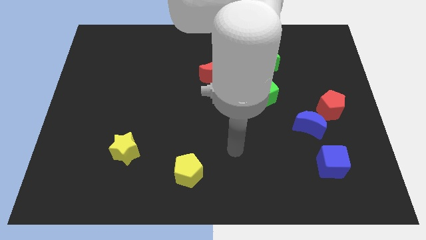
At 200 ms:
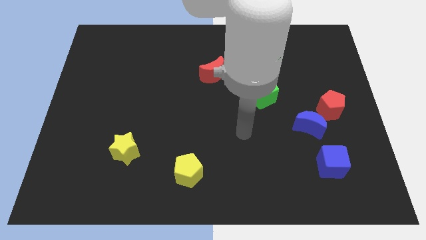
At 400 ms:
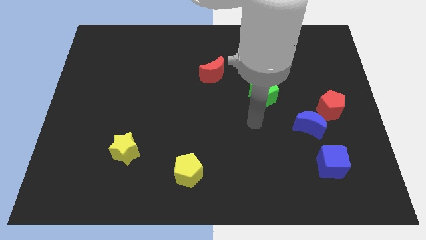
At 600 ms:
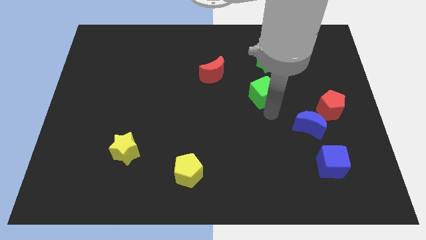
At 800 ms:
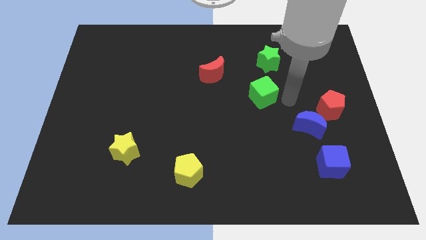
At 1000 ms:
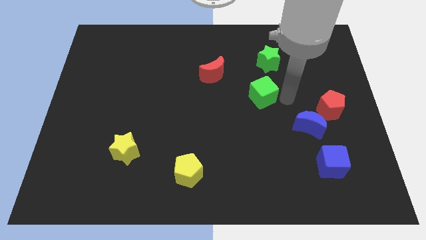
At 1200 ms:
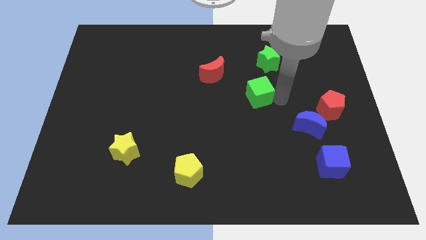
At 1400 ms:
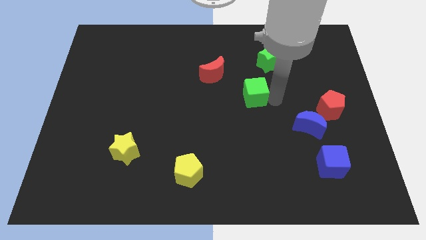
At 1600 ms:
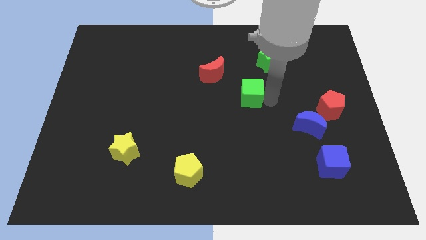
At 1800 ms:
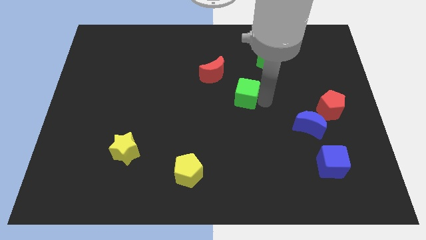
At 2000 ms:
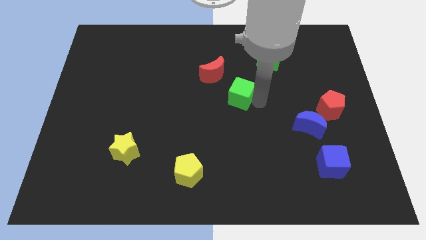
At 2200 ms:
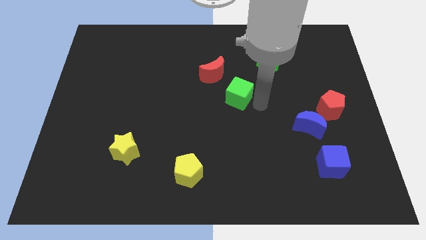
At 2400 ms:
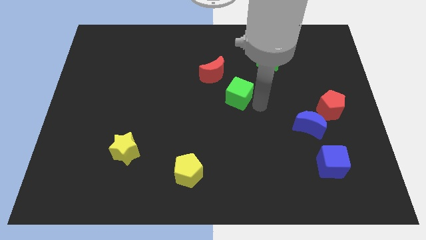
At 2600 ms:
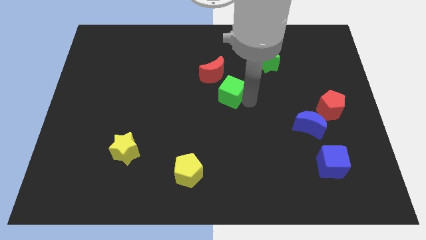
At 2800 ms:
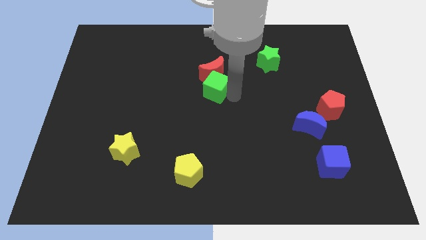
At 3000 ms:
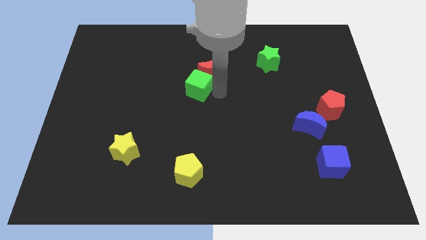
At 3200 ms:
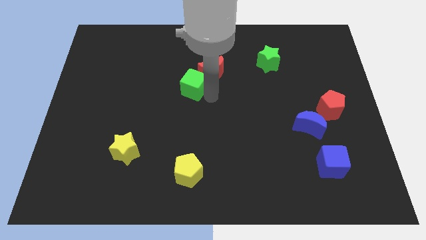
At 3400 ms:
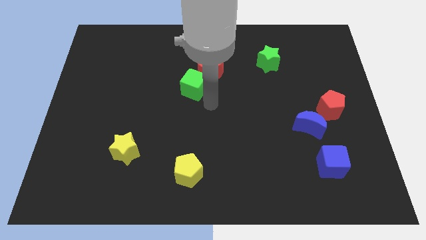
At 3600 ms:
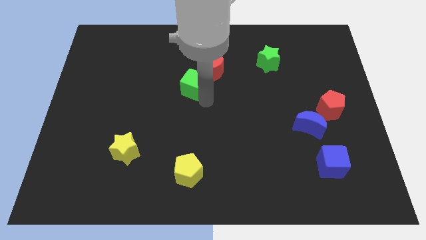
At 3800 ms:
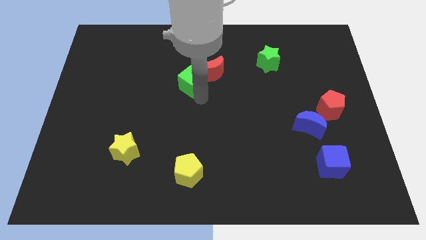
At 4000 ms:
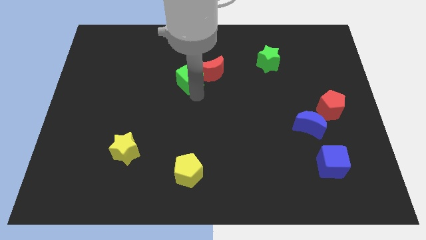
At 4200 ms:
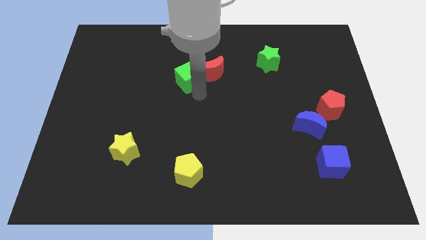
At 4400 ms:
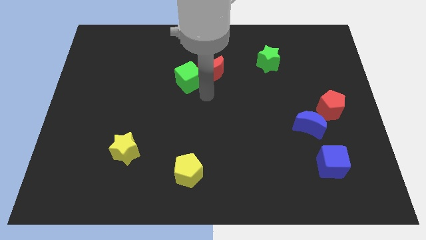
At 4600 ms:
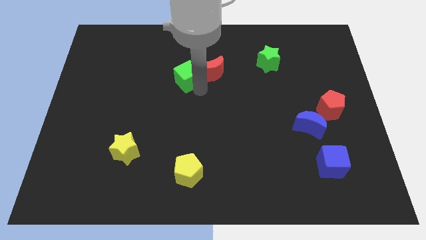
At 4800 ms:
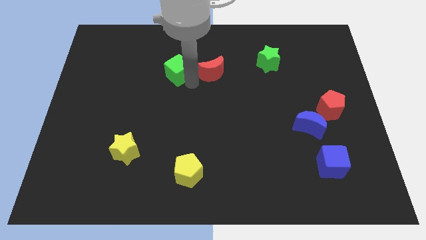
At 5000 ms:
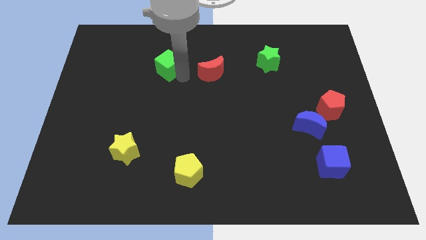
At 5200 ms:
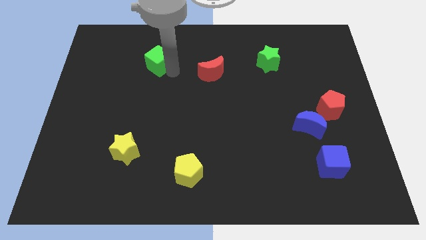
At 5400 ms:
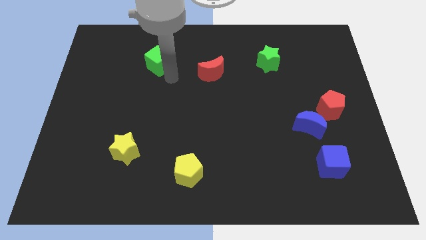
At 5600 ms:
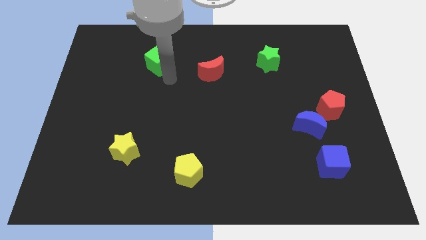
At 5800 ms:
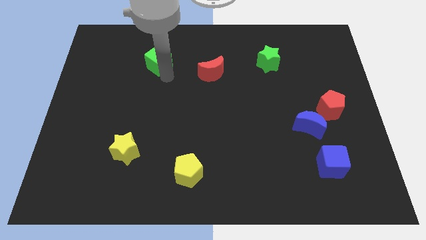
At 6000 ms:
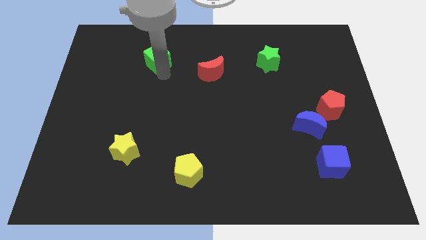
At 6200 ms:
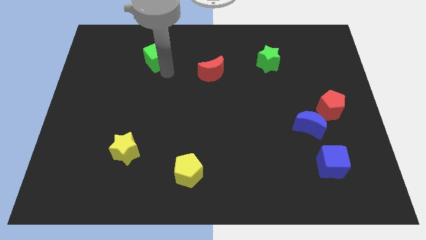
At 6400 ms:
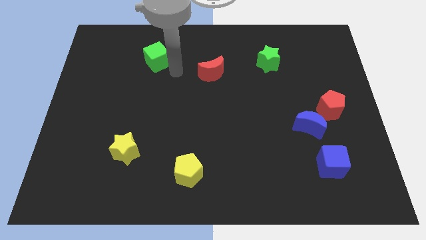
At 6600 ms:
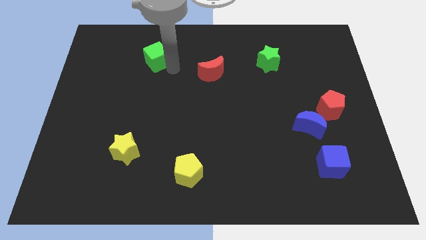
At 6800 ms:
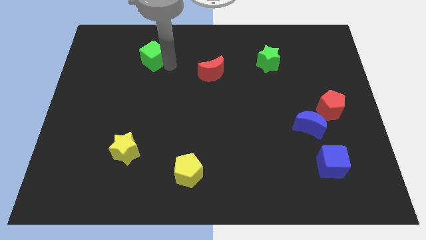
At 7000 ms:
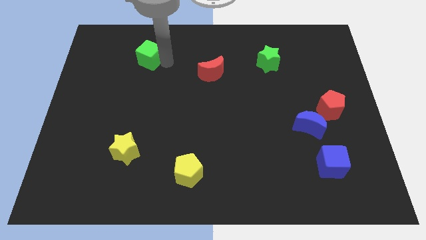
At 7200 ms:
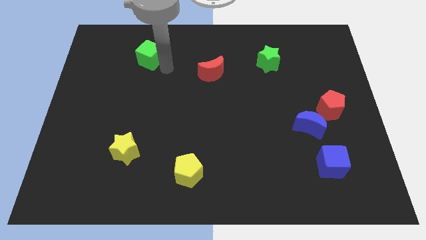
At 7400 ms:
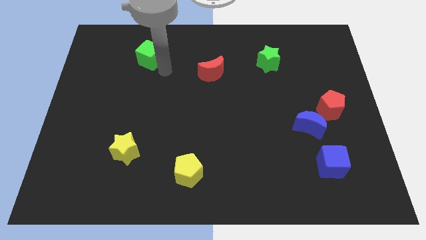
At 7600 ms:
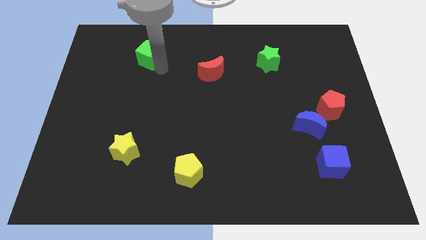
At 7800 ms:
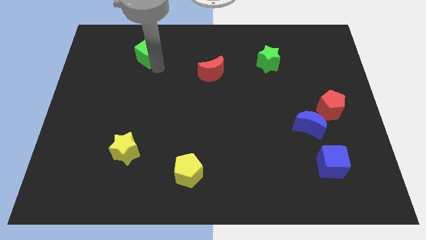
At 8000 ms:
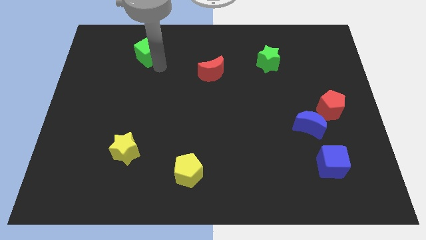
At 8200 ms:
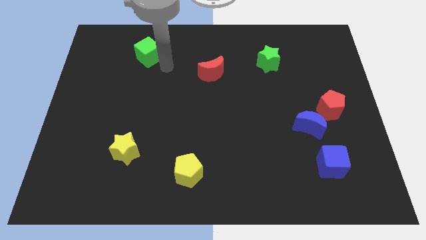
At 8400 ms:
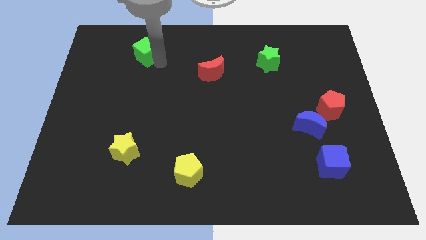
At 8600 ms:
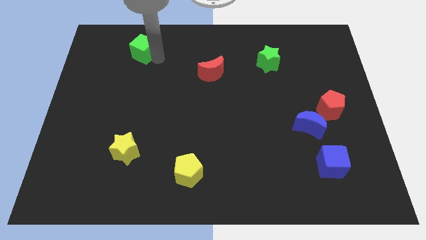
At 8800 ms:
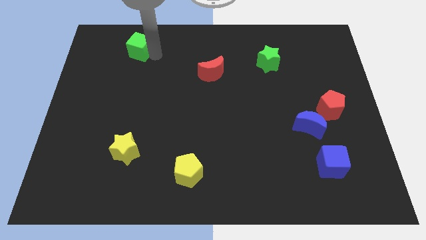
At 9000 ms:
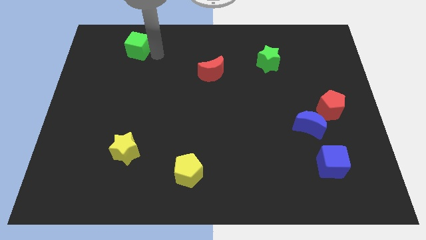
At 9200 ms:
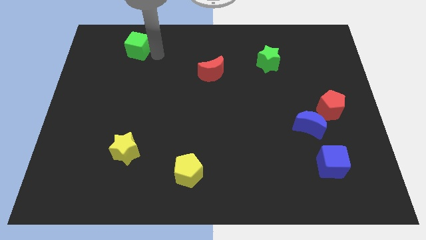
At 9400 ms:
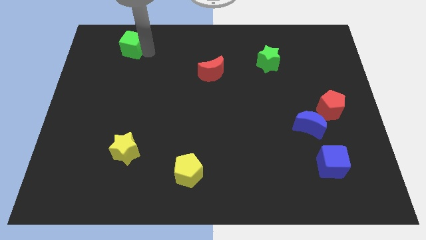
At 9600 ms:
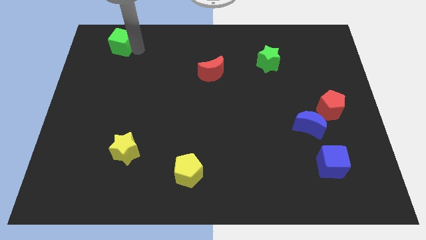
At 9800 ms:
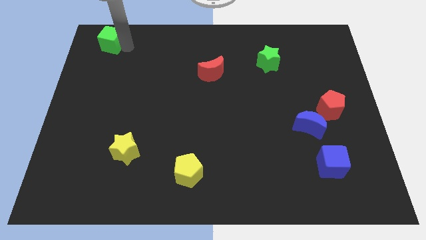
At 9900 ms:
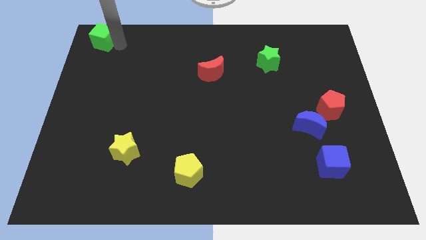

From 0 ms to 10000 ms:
put the green cube to the top left
